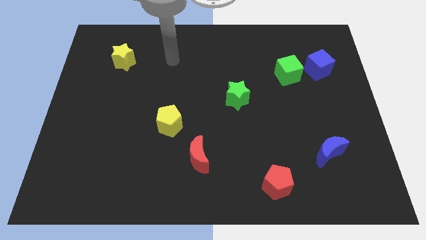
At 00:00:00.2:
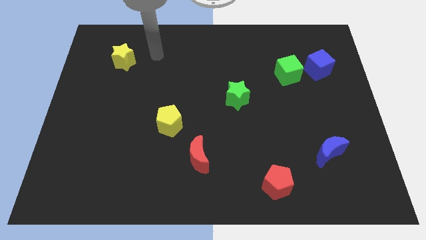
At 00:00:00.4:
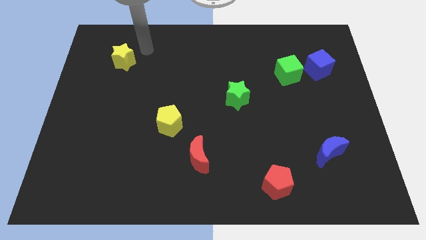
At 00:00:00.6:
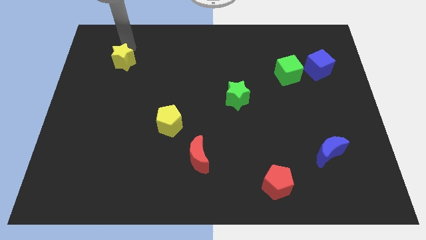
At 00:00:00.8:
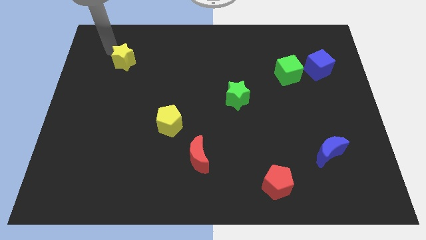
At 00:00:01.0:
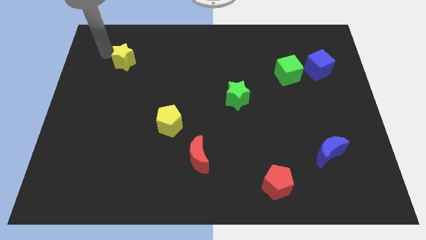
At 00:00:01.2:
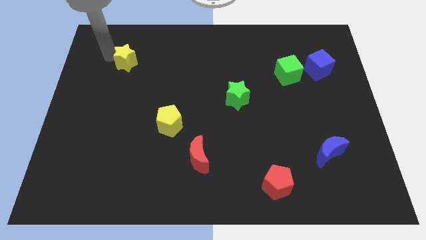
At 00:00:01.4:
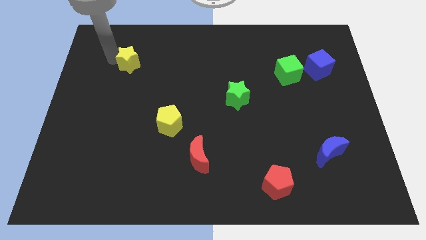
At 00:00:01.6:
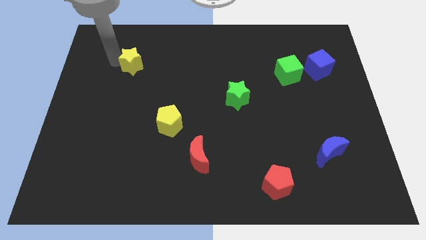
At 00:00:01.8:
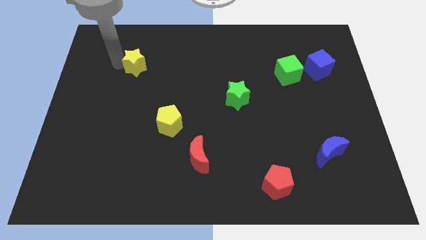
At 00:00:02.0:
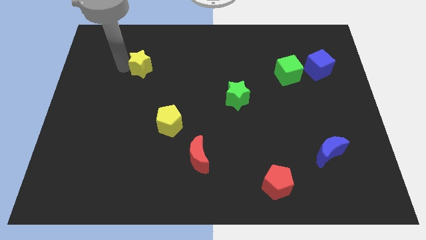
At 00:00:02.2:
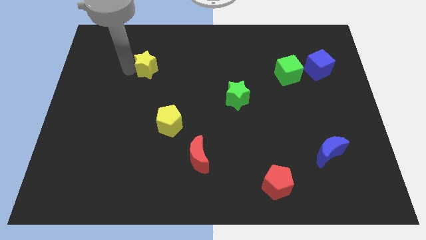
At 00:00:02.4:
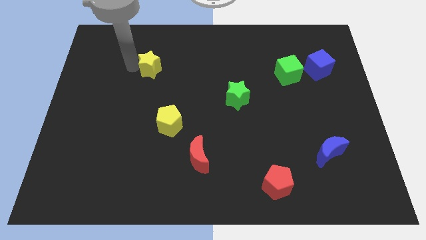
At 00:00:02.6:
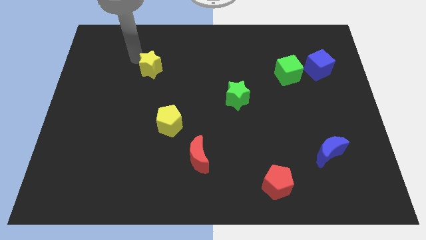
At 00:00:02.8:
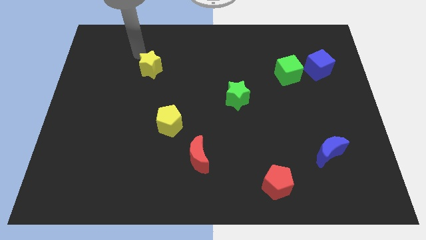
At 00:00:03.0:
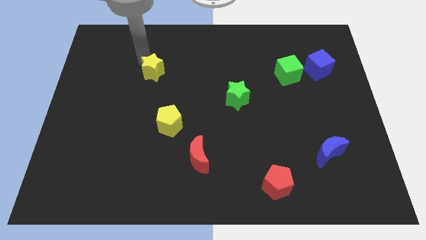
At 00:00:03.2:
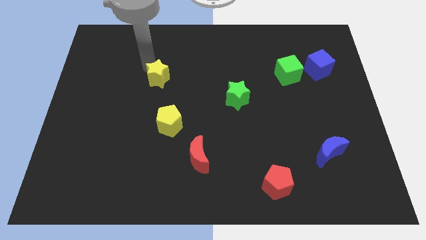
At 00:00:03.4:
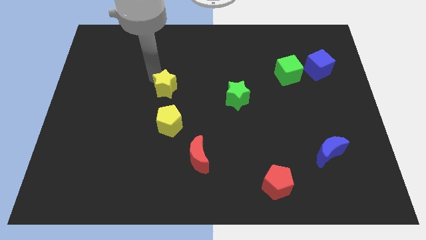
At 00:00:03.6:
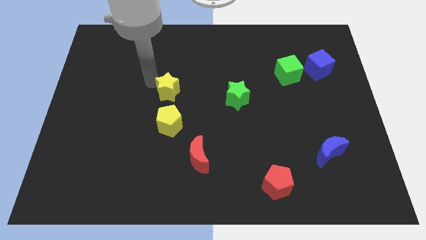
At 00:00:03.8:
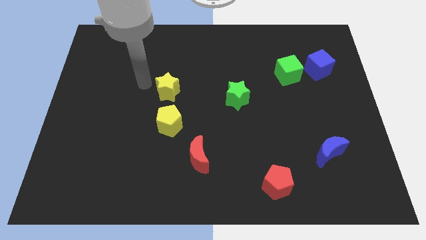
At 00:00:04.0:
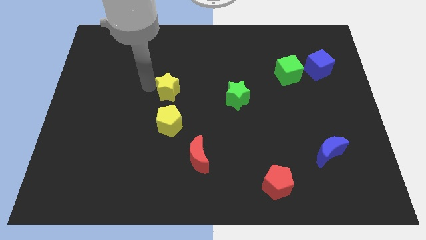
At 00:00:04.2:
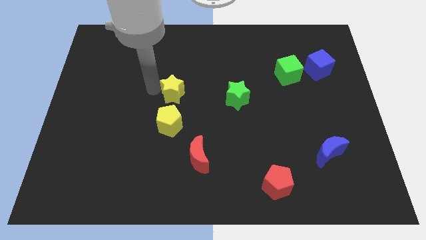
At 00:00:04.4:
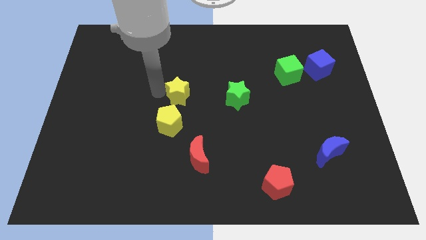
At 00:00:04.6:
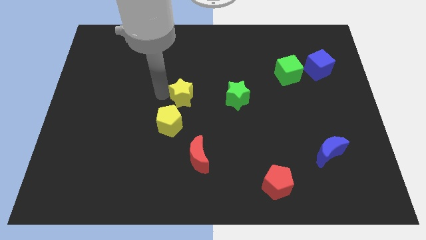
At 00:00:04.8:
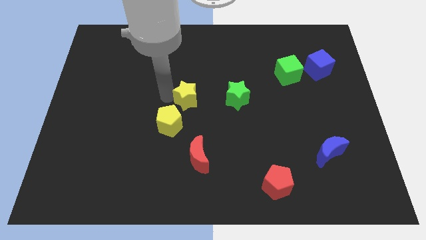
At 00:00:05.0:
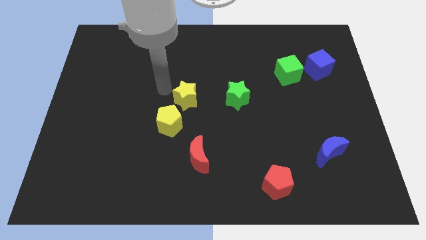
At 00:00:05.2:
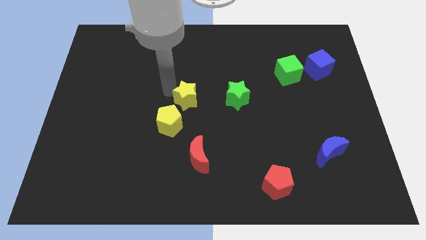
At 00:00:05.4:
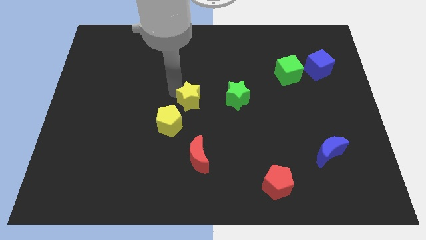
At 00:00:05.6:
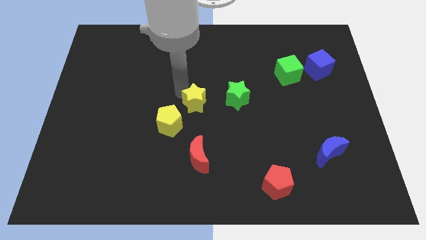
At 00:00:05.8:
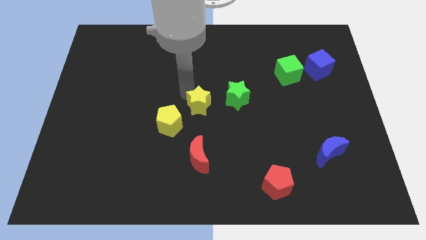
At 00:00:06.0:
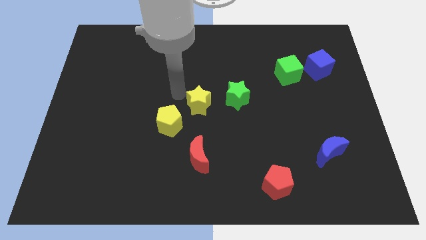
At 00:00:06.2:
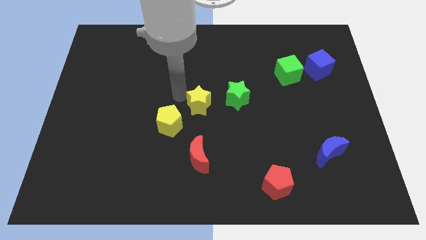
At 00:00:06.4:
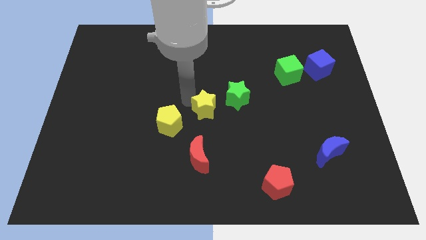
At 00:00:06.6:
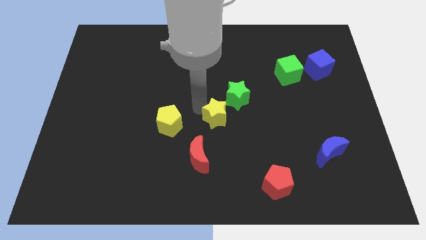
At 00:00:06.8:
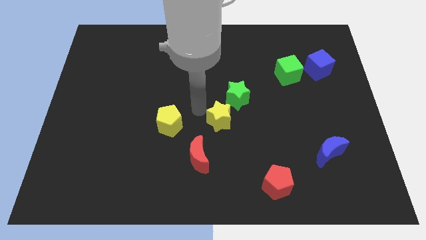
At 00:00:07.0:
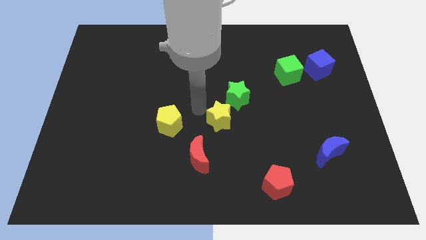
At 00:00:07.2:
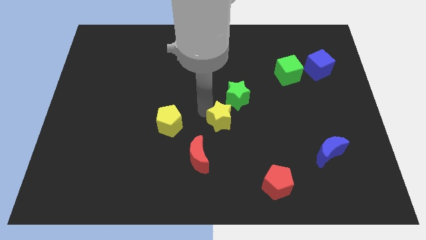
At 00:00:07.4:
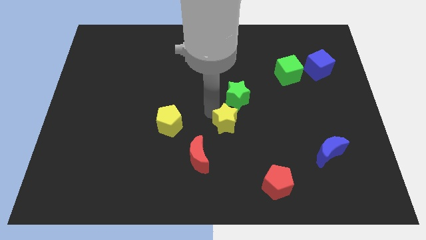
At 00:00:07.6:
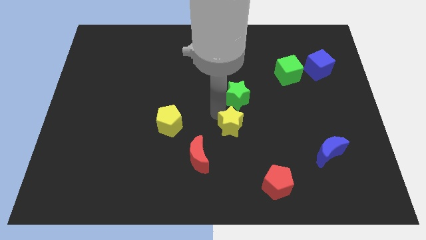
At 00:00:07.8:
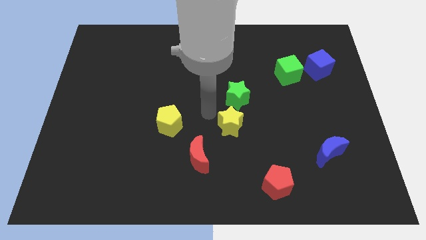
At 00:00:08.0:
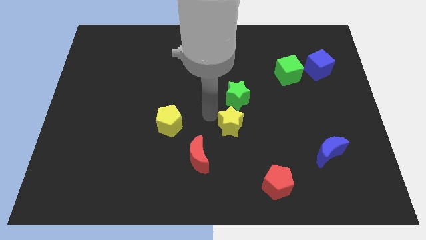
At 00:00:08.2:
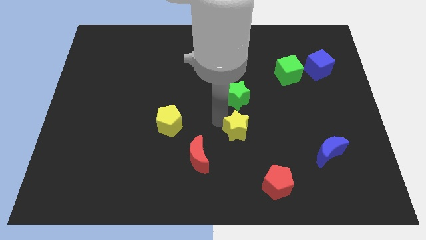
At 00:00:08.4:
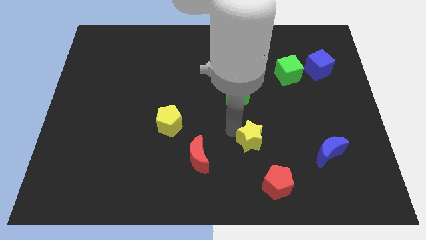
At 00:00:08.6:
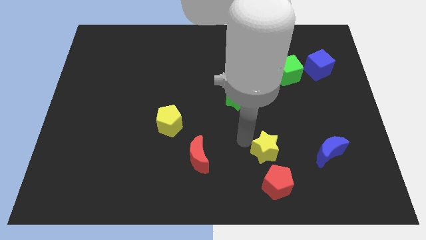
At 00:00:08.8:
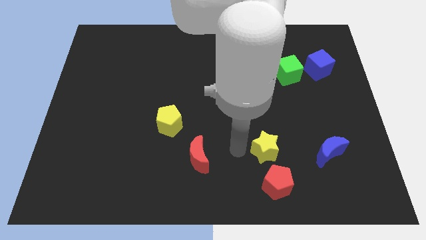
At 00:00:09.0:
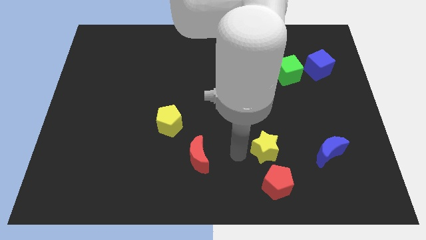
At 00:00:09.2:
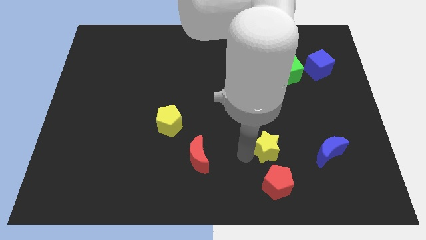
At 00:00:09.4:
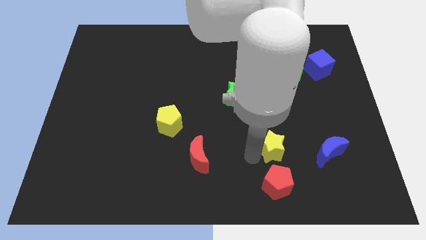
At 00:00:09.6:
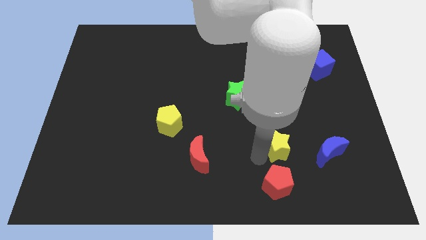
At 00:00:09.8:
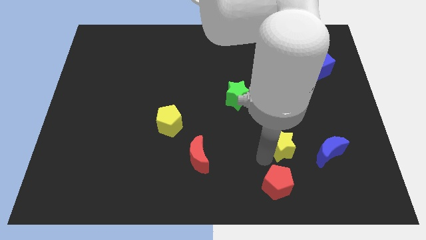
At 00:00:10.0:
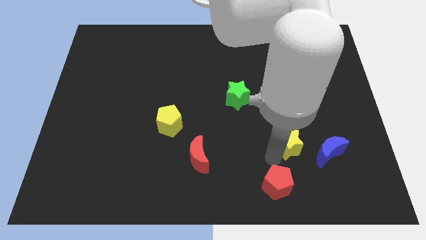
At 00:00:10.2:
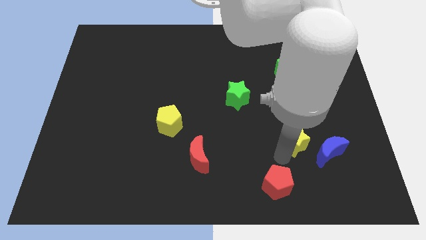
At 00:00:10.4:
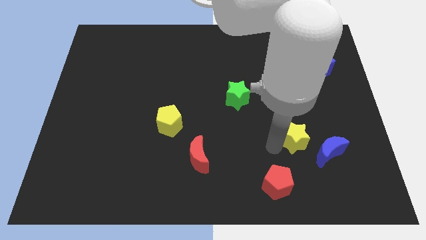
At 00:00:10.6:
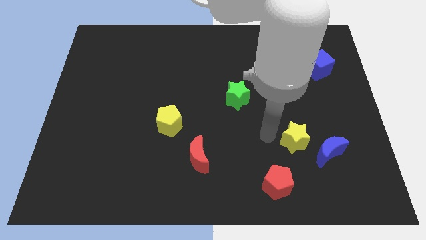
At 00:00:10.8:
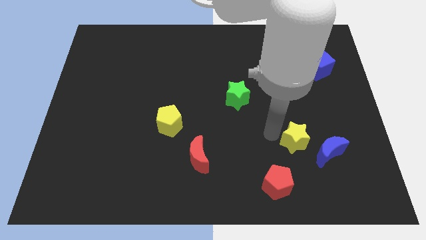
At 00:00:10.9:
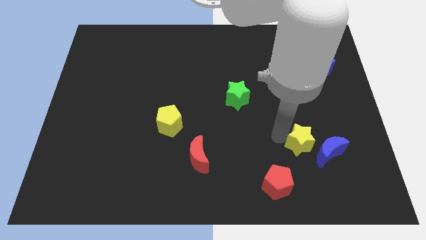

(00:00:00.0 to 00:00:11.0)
move the yellow star to the blue moon

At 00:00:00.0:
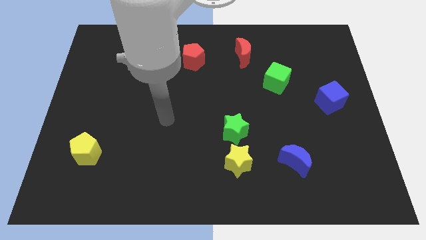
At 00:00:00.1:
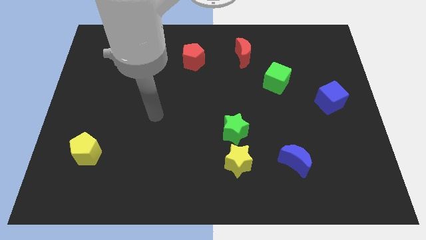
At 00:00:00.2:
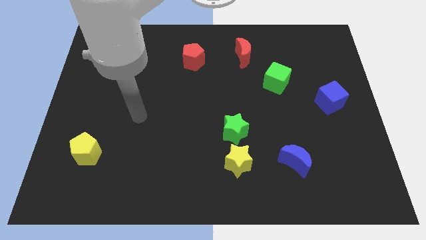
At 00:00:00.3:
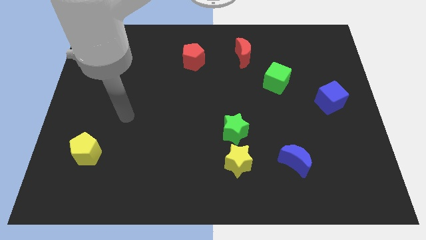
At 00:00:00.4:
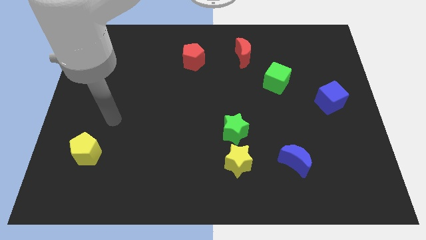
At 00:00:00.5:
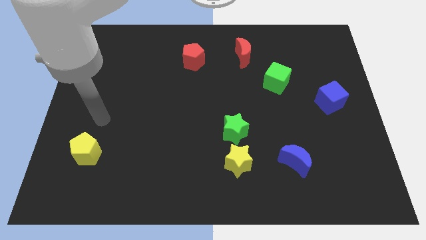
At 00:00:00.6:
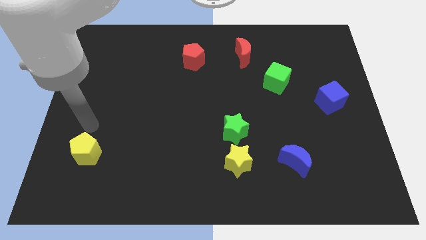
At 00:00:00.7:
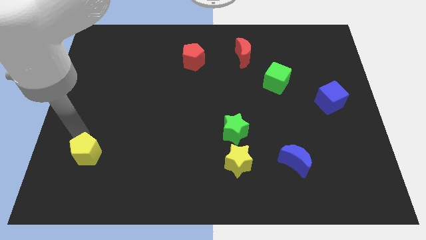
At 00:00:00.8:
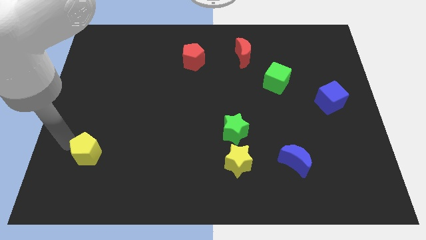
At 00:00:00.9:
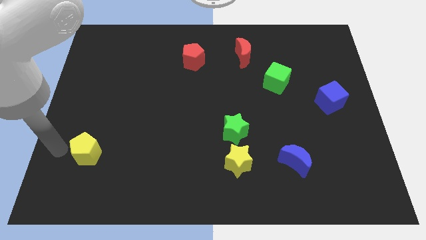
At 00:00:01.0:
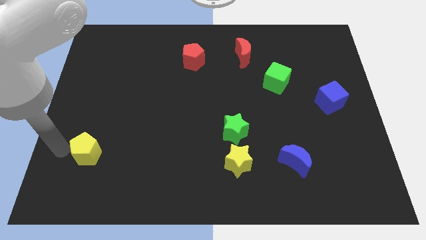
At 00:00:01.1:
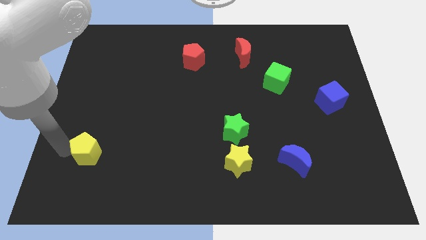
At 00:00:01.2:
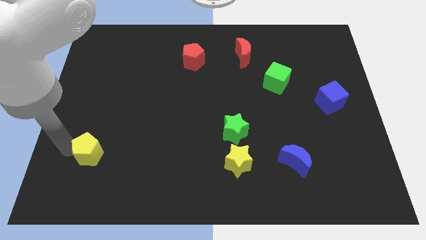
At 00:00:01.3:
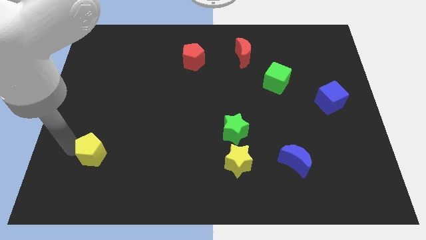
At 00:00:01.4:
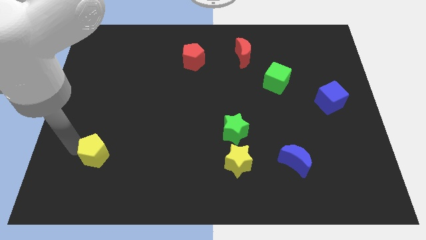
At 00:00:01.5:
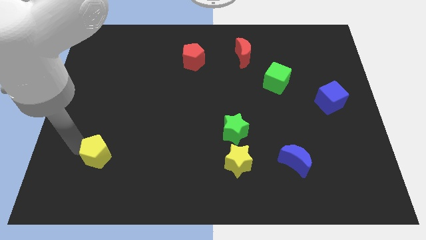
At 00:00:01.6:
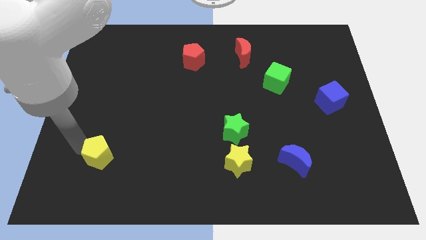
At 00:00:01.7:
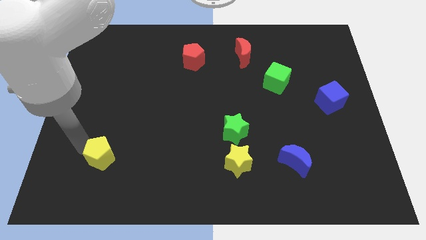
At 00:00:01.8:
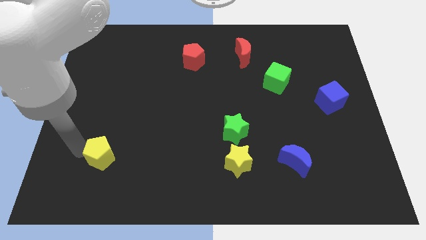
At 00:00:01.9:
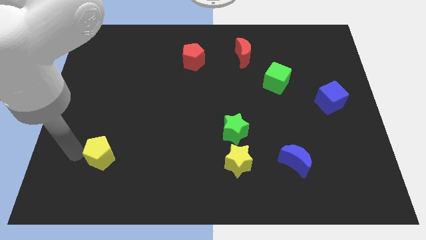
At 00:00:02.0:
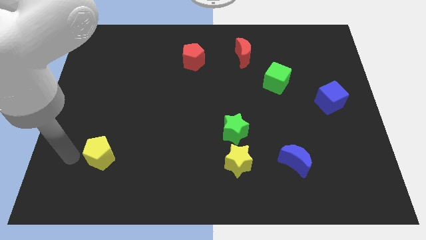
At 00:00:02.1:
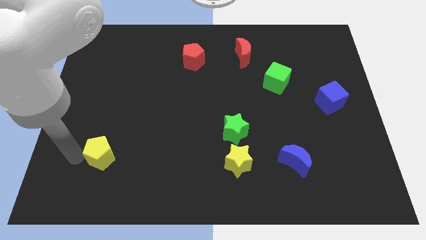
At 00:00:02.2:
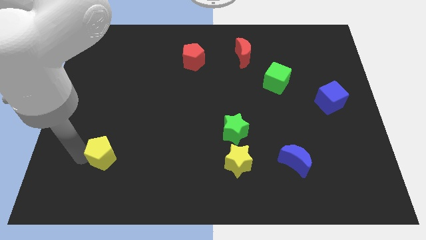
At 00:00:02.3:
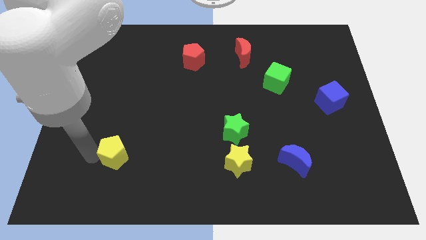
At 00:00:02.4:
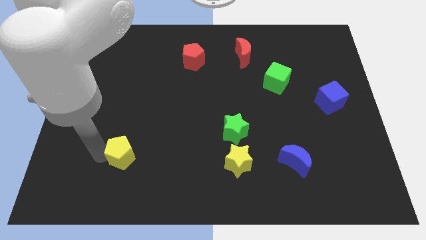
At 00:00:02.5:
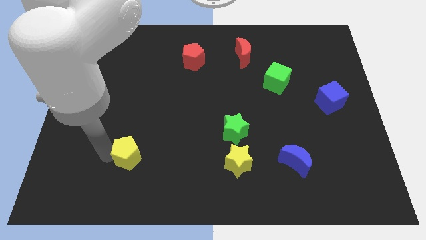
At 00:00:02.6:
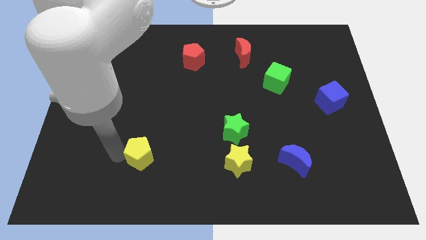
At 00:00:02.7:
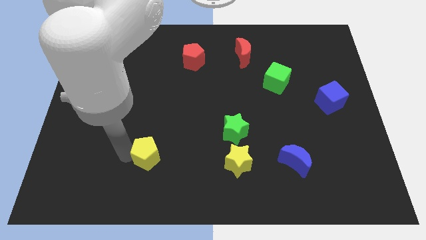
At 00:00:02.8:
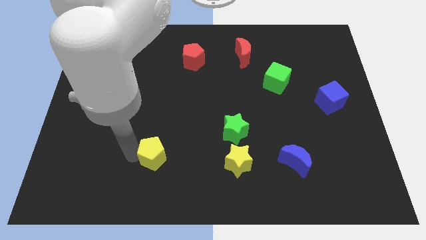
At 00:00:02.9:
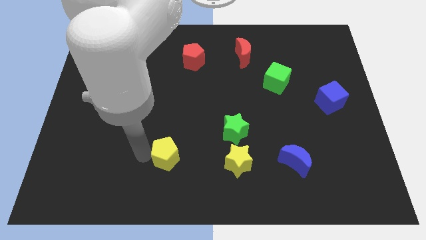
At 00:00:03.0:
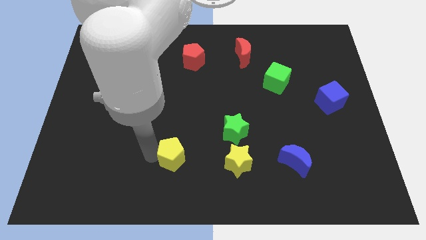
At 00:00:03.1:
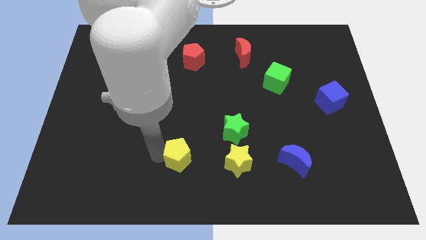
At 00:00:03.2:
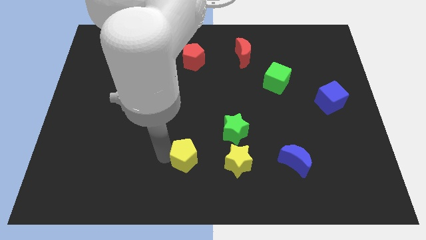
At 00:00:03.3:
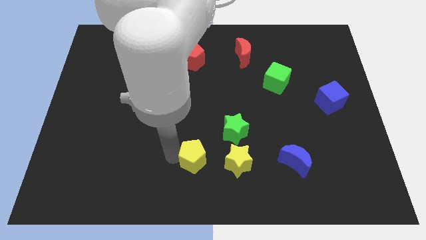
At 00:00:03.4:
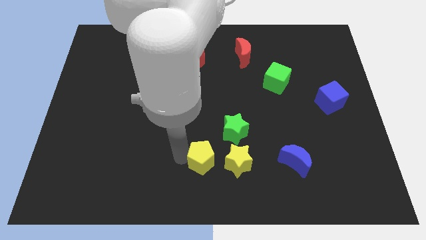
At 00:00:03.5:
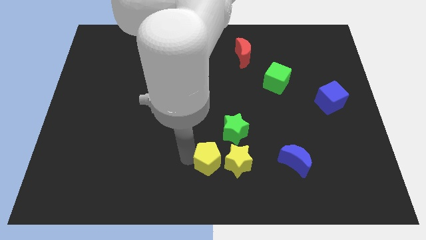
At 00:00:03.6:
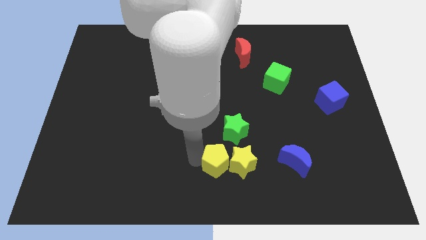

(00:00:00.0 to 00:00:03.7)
push the yellow pentagon close to the yellow star
